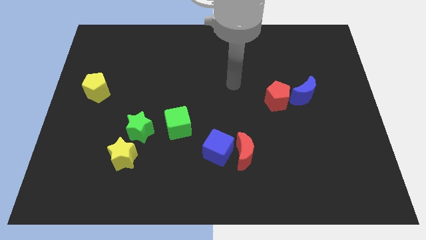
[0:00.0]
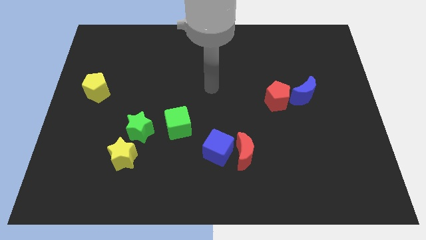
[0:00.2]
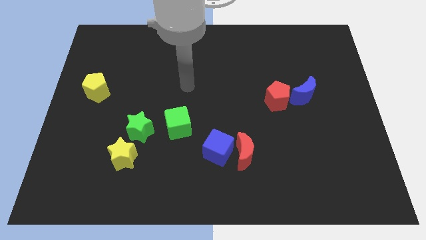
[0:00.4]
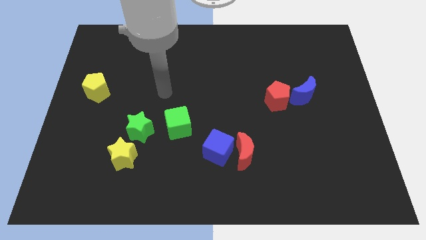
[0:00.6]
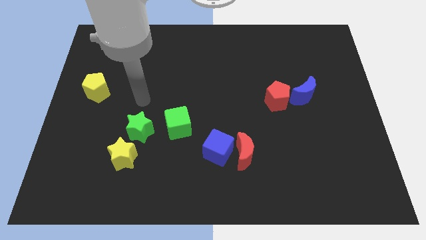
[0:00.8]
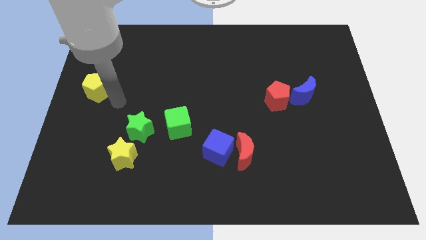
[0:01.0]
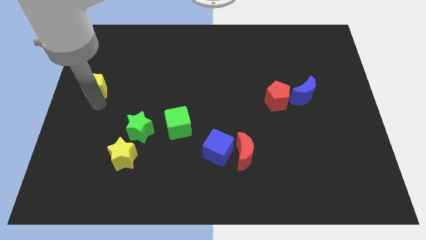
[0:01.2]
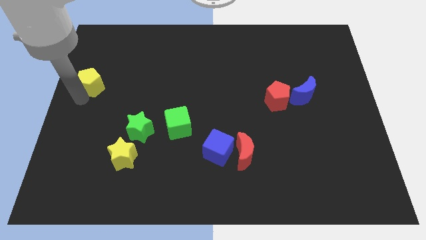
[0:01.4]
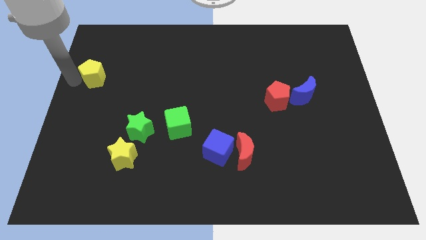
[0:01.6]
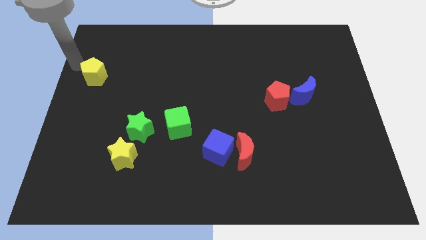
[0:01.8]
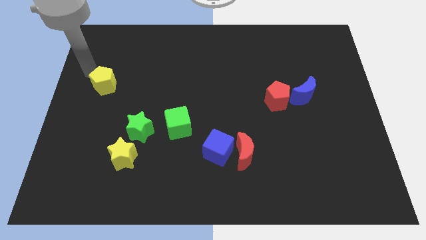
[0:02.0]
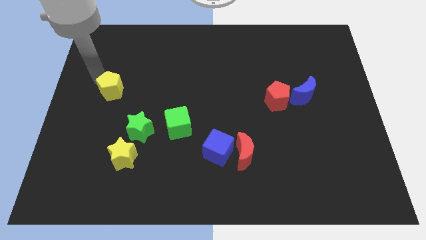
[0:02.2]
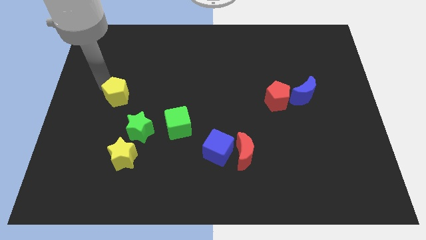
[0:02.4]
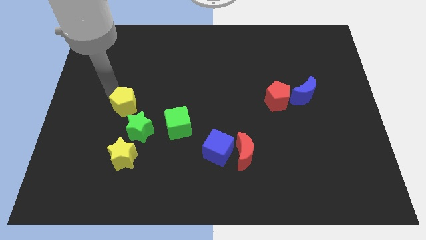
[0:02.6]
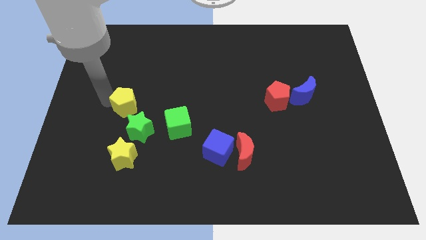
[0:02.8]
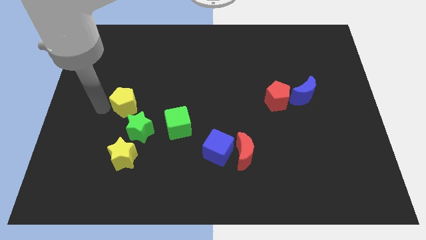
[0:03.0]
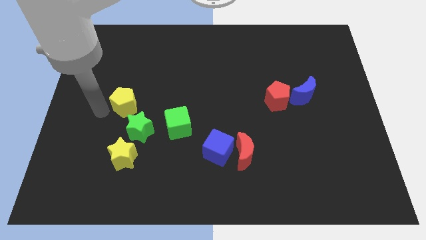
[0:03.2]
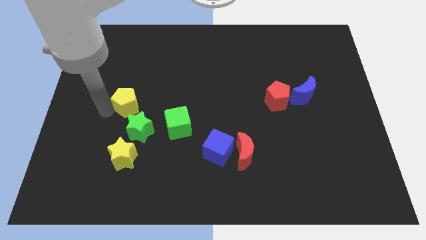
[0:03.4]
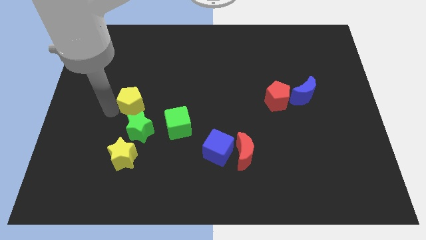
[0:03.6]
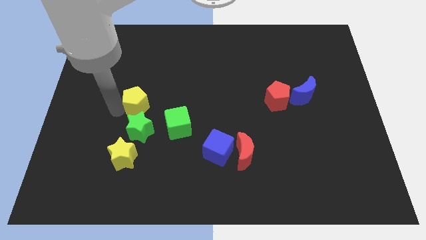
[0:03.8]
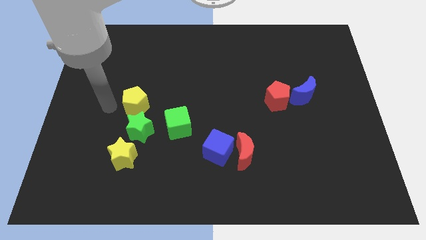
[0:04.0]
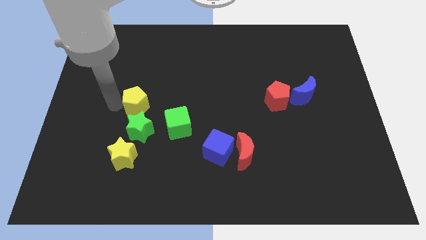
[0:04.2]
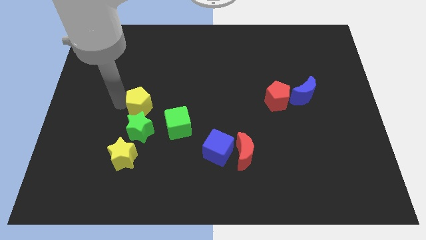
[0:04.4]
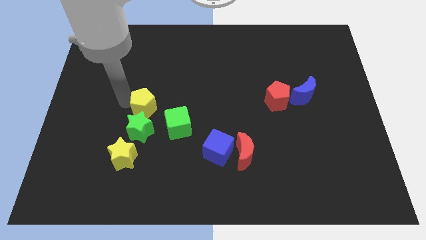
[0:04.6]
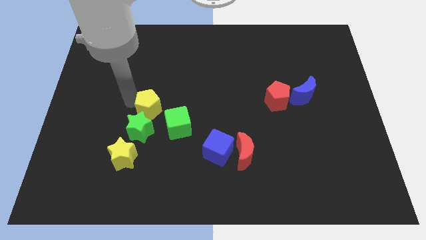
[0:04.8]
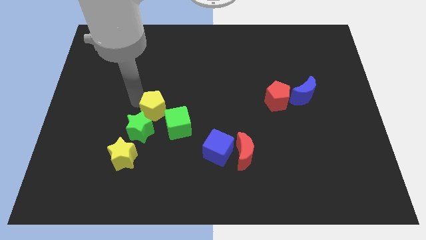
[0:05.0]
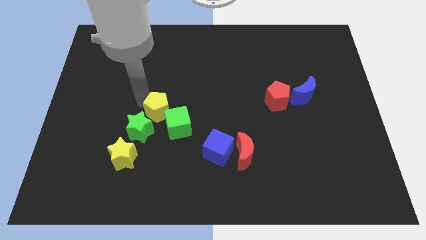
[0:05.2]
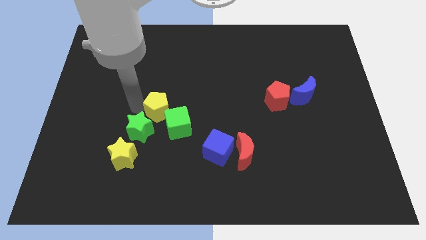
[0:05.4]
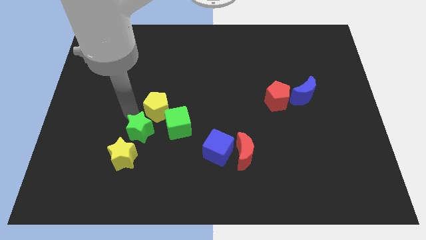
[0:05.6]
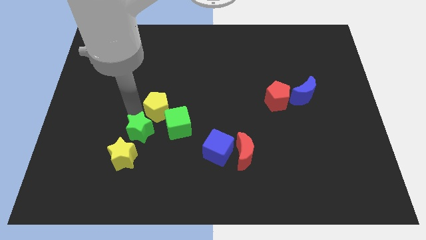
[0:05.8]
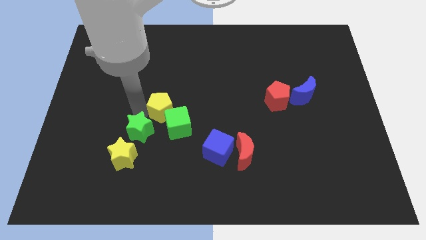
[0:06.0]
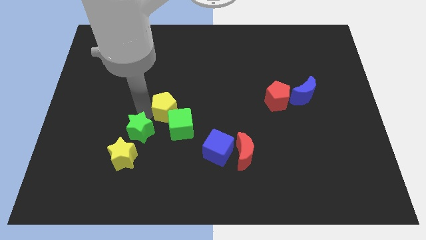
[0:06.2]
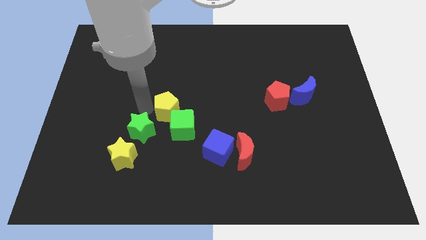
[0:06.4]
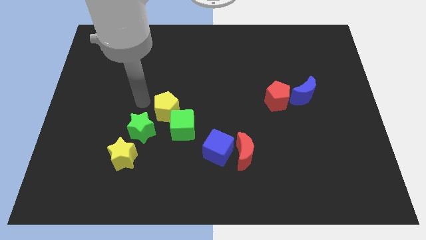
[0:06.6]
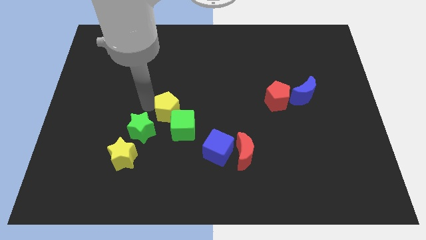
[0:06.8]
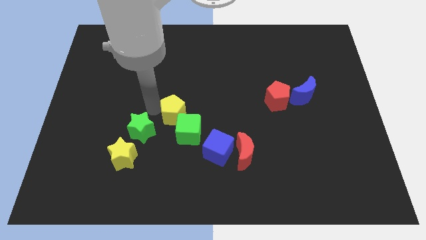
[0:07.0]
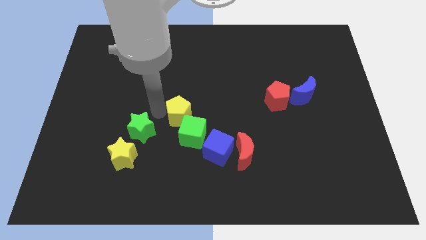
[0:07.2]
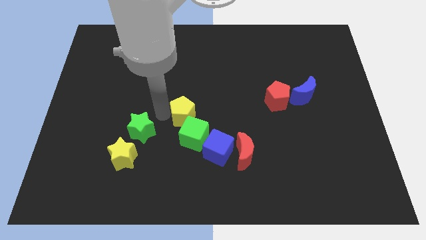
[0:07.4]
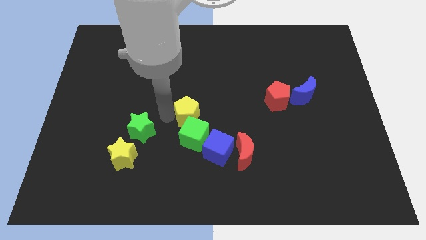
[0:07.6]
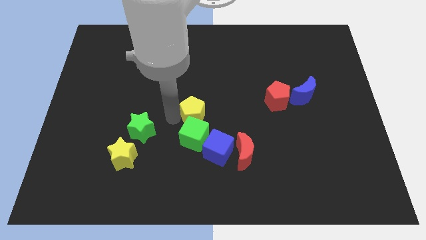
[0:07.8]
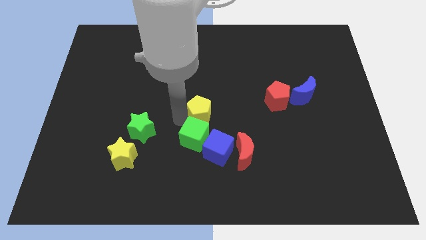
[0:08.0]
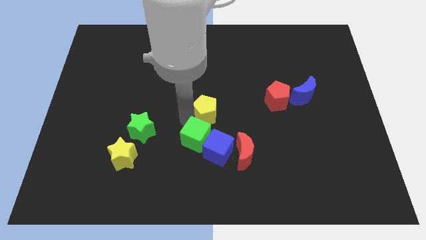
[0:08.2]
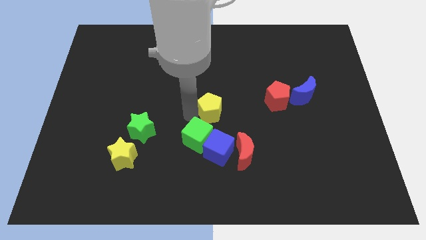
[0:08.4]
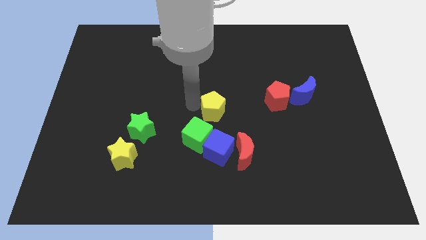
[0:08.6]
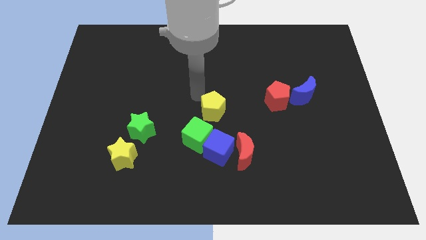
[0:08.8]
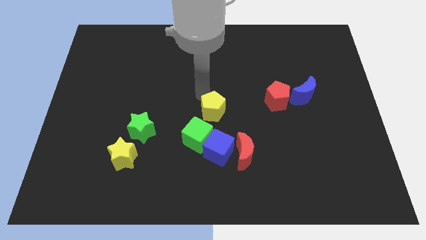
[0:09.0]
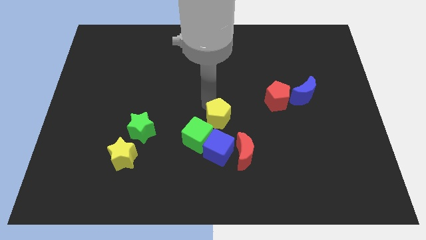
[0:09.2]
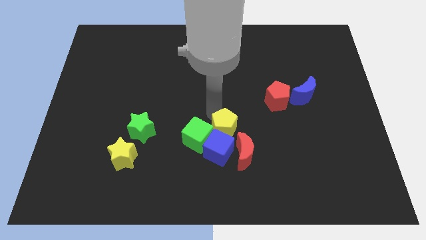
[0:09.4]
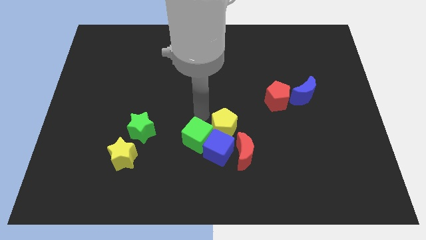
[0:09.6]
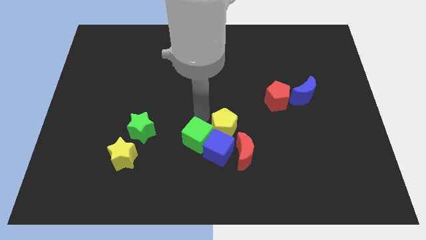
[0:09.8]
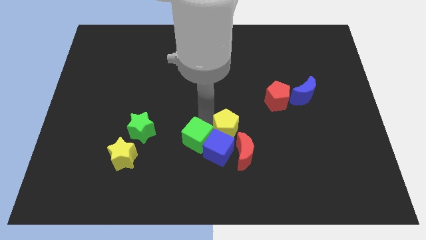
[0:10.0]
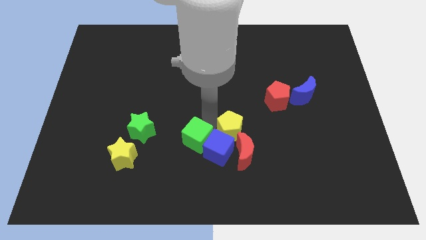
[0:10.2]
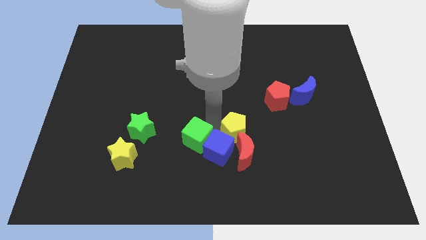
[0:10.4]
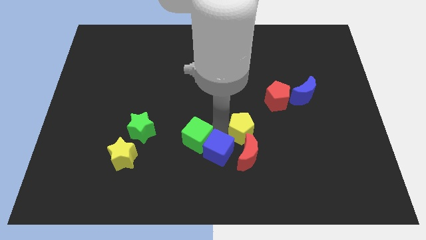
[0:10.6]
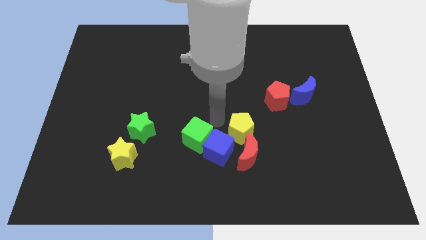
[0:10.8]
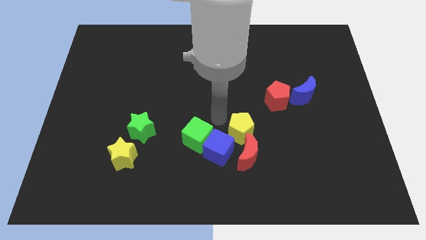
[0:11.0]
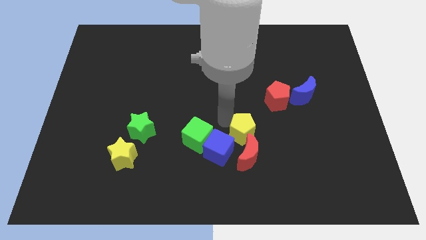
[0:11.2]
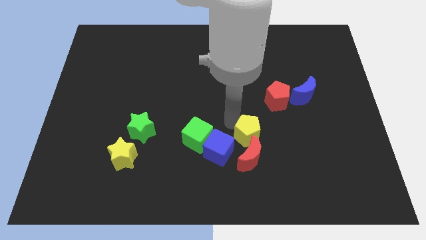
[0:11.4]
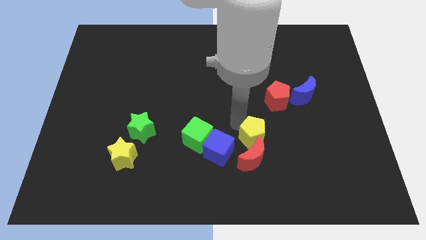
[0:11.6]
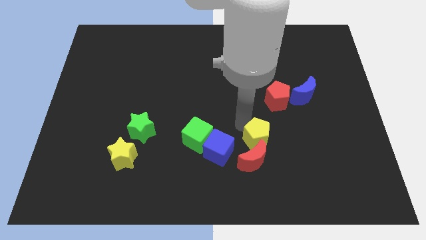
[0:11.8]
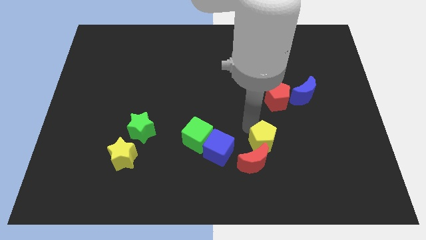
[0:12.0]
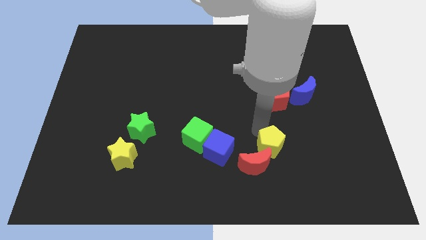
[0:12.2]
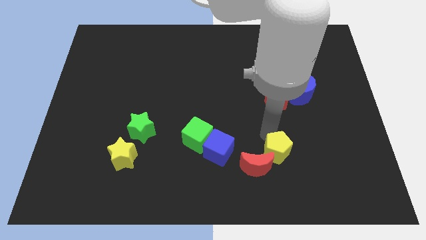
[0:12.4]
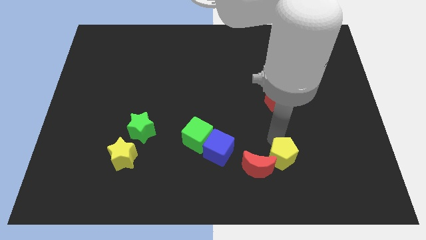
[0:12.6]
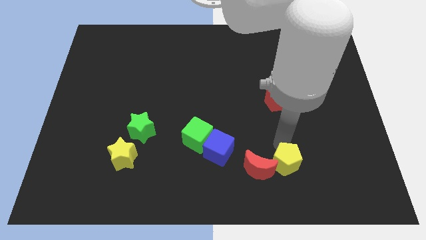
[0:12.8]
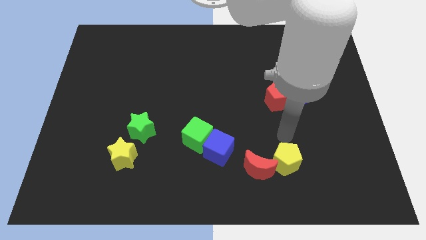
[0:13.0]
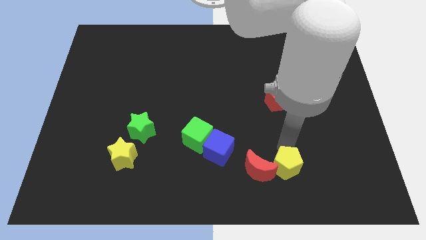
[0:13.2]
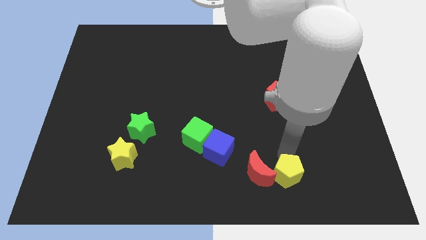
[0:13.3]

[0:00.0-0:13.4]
push the yellow pentagon diagonally down and to the right of the red moon

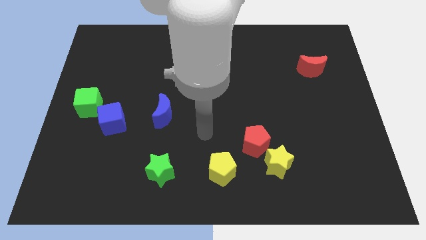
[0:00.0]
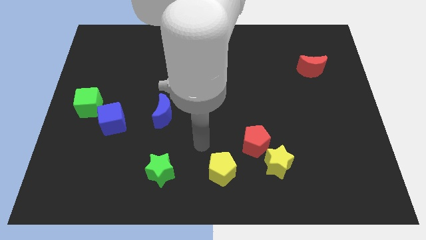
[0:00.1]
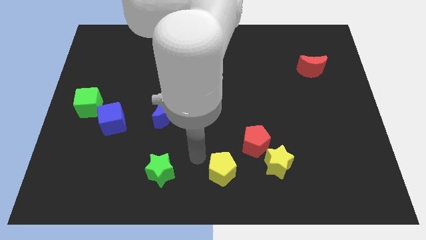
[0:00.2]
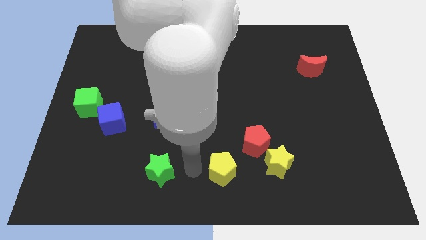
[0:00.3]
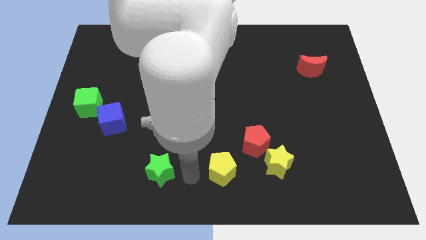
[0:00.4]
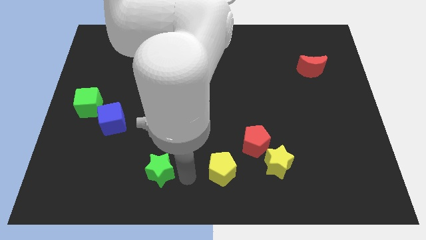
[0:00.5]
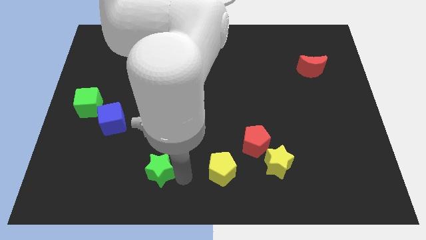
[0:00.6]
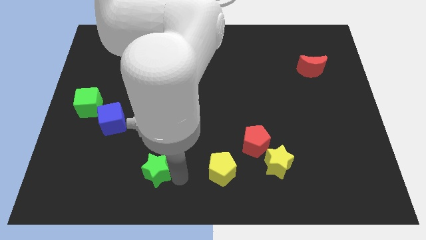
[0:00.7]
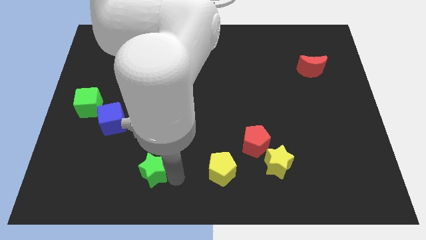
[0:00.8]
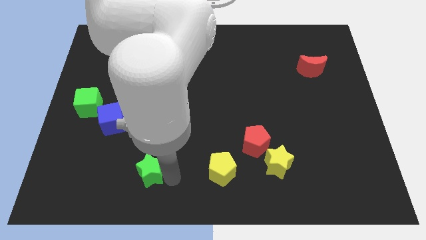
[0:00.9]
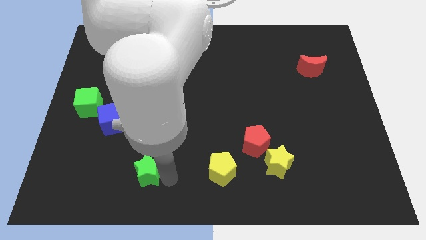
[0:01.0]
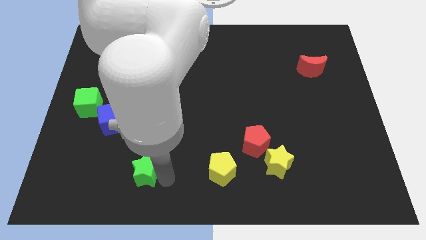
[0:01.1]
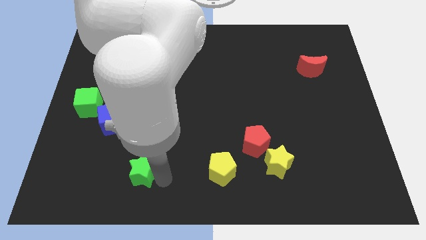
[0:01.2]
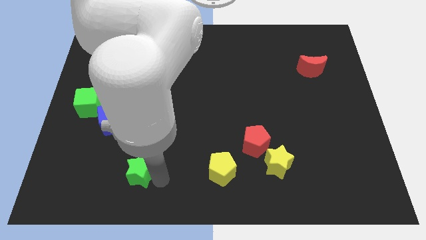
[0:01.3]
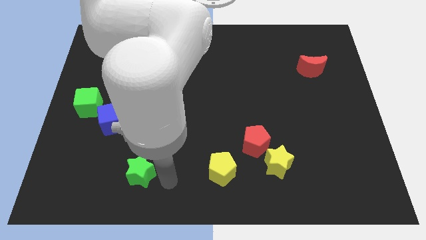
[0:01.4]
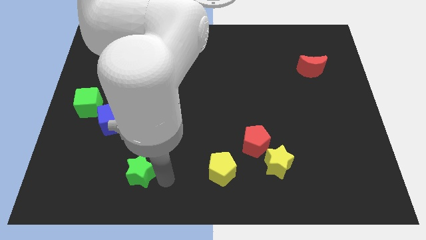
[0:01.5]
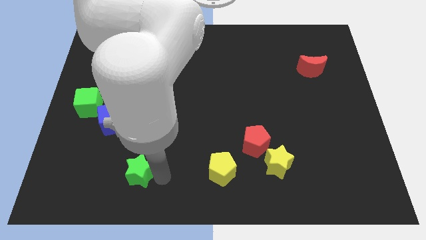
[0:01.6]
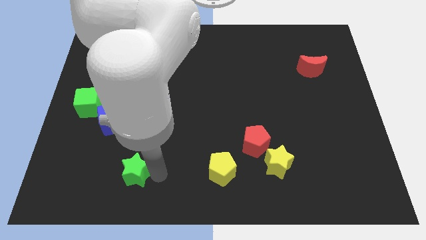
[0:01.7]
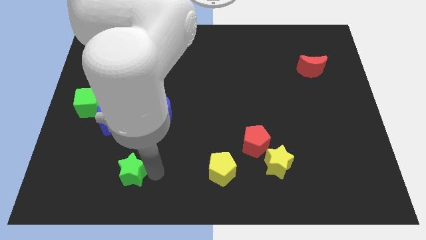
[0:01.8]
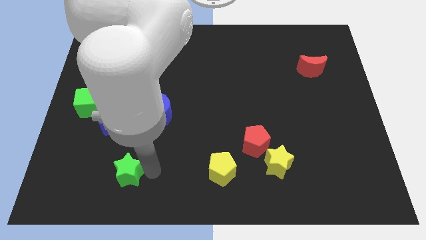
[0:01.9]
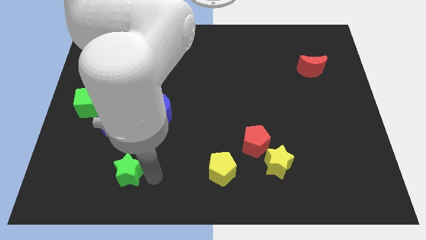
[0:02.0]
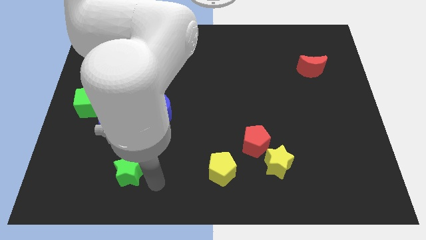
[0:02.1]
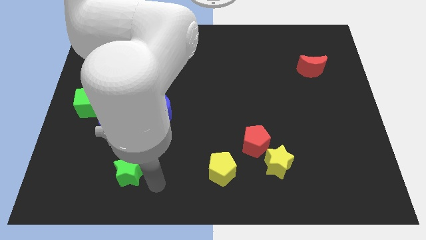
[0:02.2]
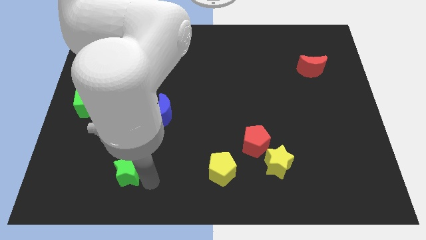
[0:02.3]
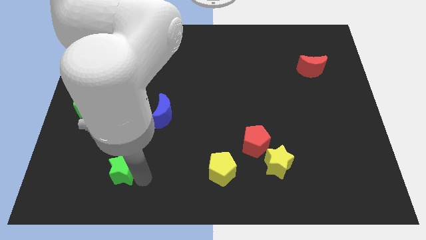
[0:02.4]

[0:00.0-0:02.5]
push the green star below the blue cube
